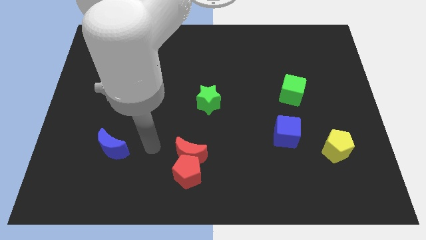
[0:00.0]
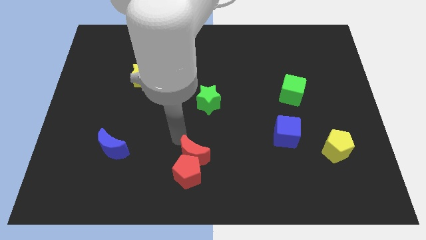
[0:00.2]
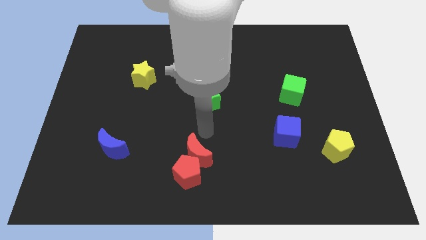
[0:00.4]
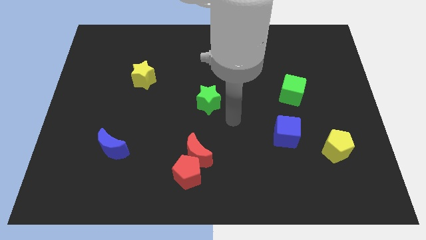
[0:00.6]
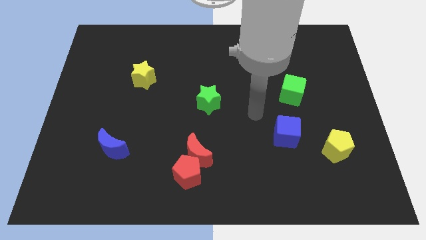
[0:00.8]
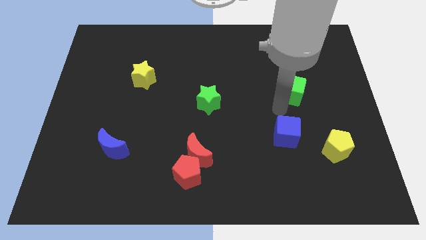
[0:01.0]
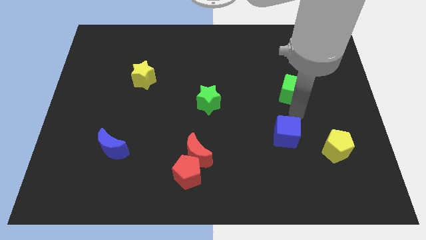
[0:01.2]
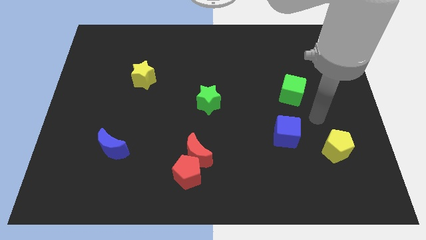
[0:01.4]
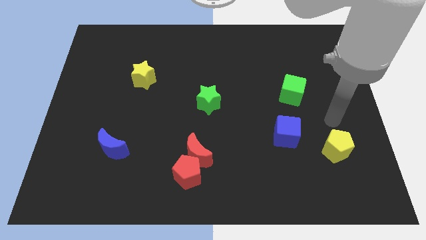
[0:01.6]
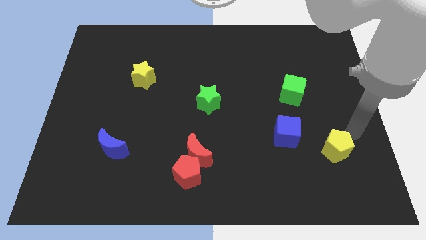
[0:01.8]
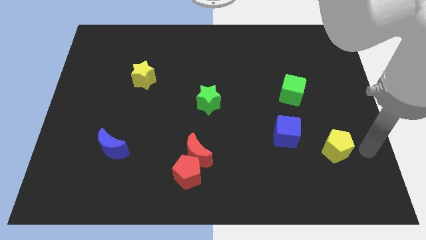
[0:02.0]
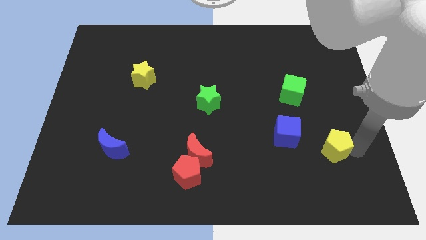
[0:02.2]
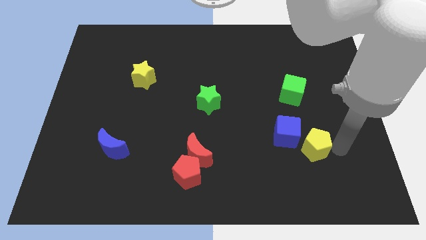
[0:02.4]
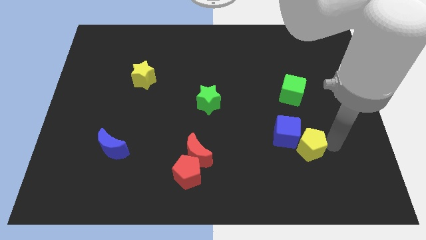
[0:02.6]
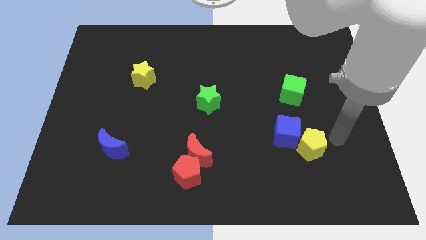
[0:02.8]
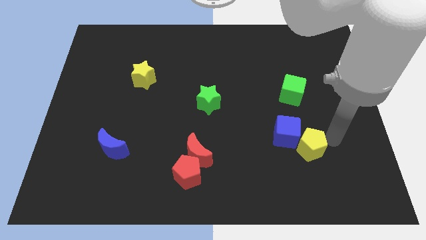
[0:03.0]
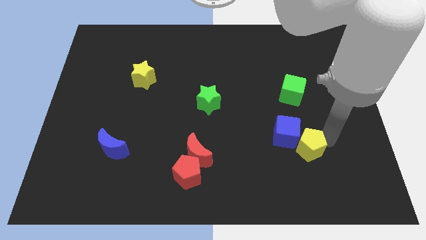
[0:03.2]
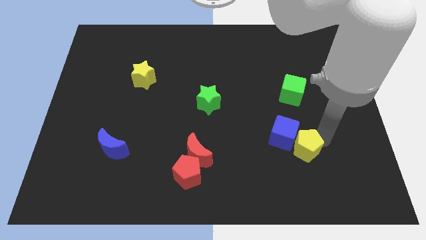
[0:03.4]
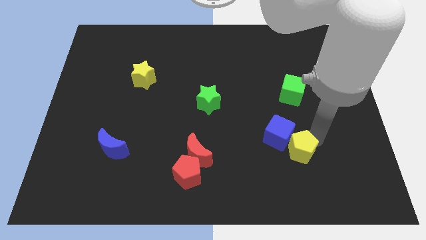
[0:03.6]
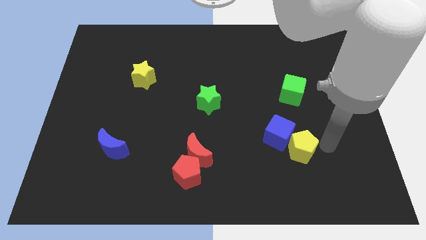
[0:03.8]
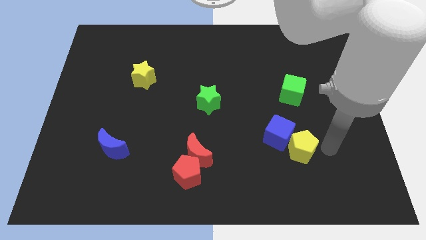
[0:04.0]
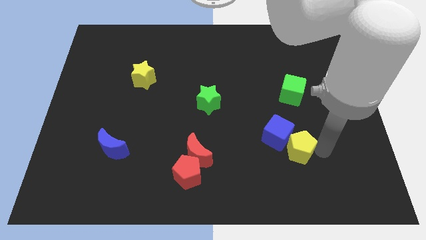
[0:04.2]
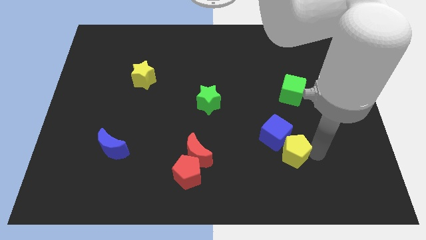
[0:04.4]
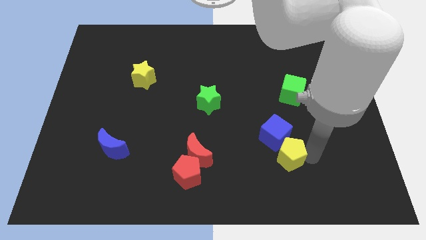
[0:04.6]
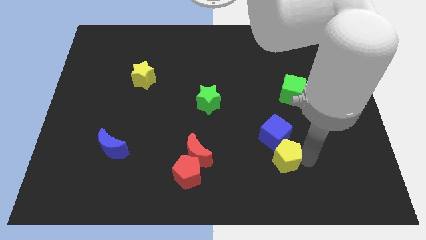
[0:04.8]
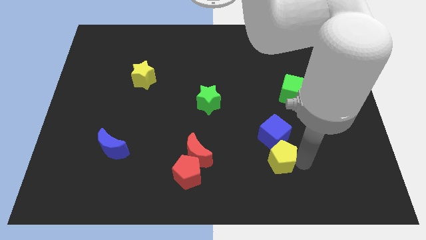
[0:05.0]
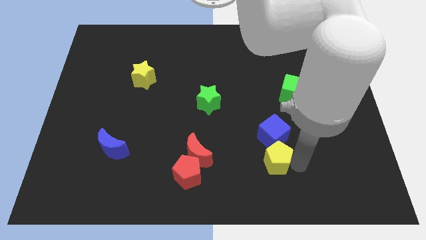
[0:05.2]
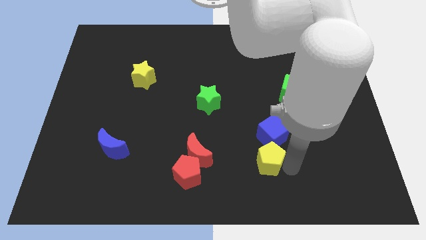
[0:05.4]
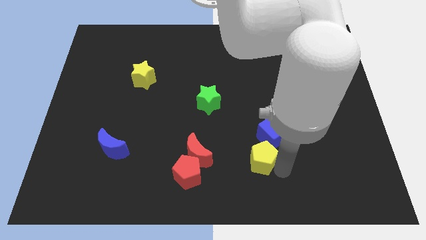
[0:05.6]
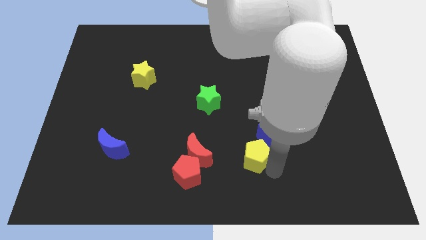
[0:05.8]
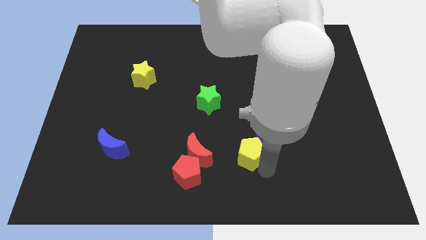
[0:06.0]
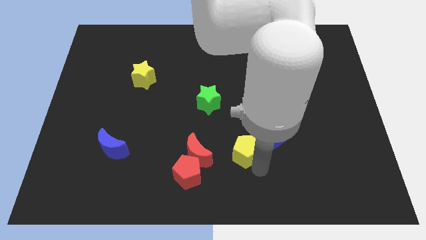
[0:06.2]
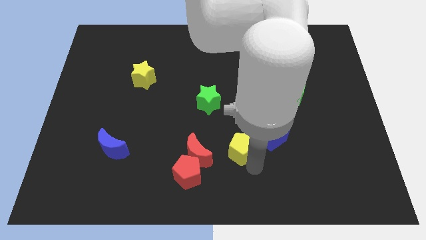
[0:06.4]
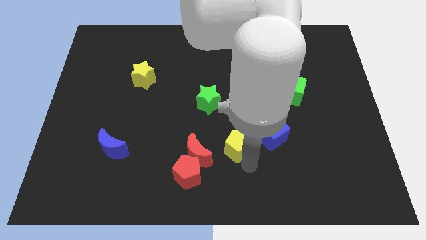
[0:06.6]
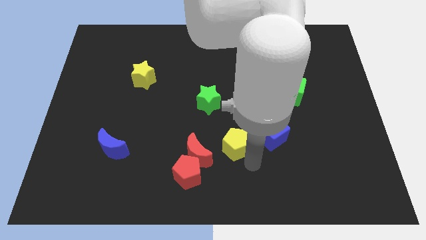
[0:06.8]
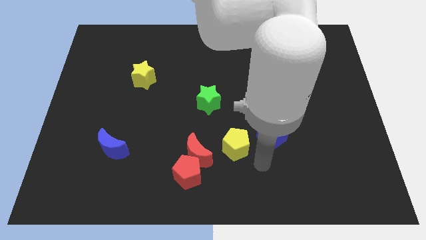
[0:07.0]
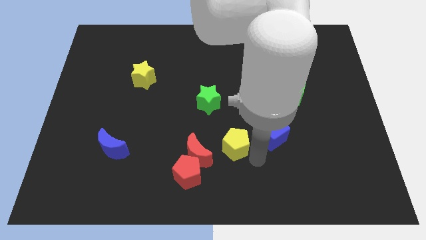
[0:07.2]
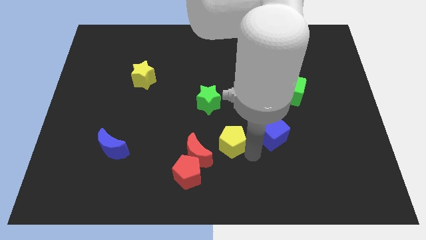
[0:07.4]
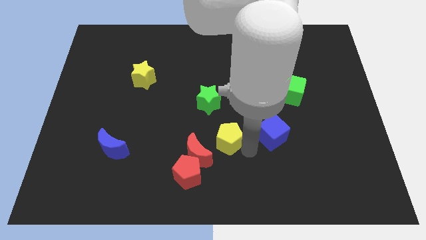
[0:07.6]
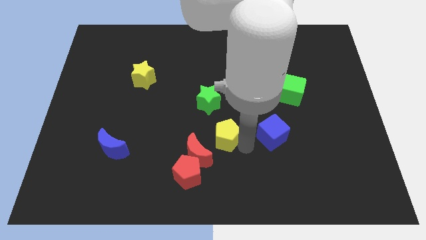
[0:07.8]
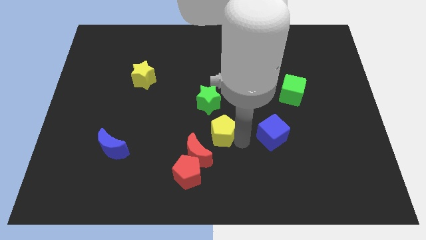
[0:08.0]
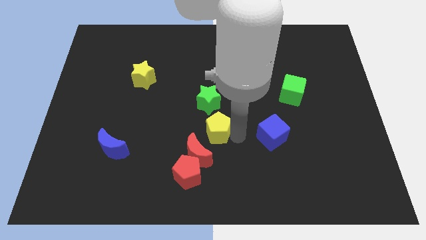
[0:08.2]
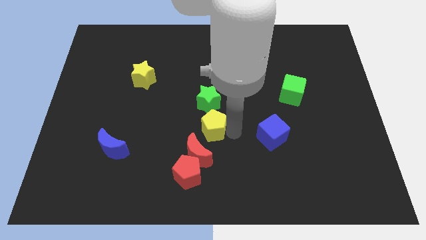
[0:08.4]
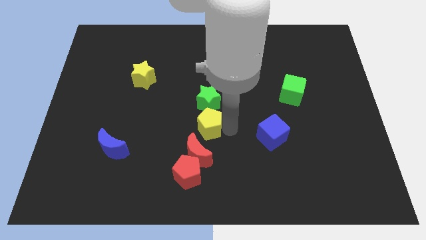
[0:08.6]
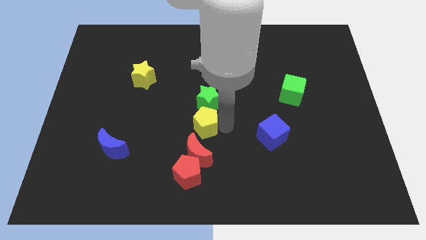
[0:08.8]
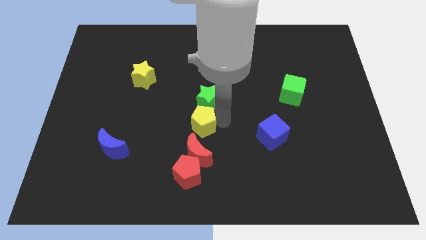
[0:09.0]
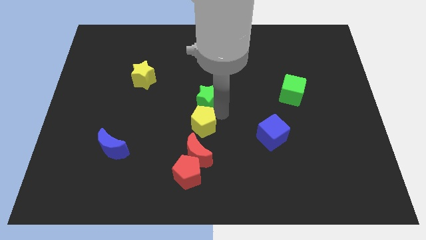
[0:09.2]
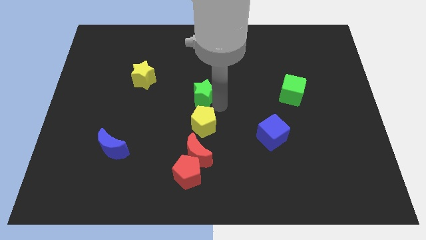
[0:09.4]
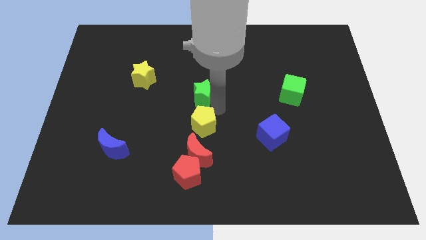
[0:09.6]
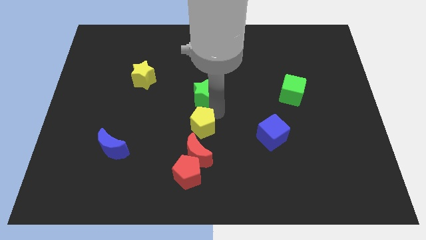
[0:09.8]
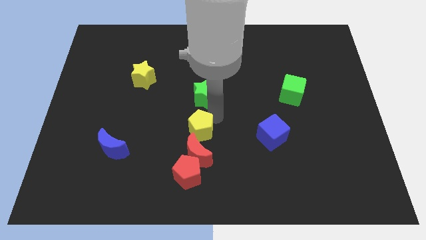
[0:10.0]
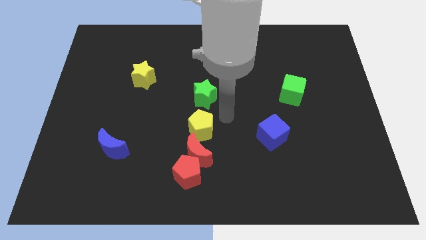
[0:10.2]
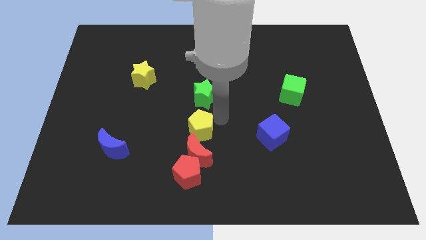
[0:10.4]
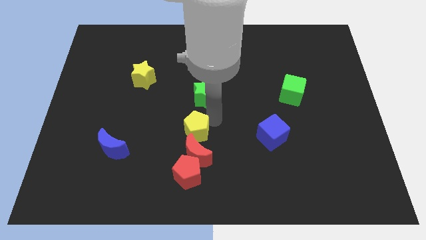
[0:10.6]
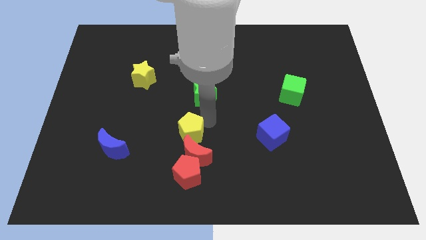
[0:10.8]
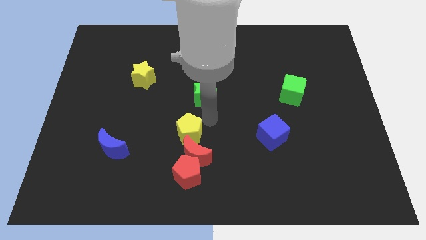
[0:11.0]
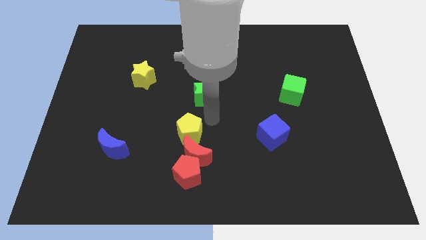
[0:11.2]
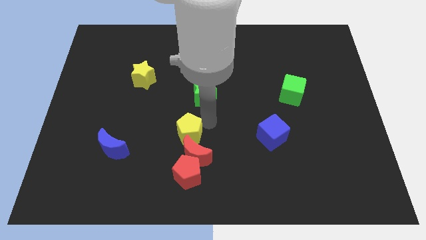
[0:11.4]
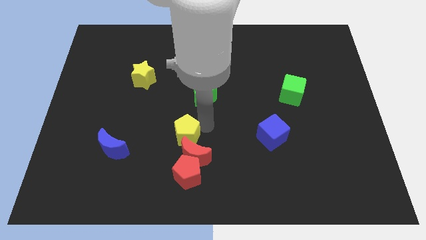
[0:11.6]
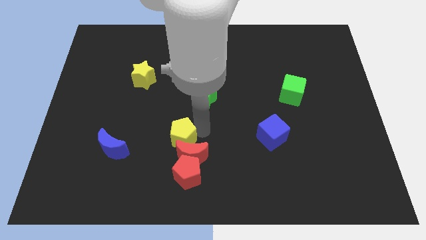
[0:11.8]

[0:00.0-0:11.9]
move the yellow pentagon right of the blue moon
